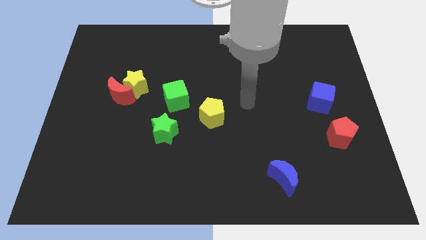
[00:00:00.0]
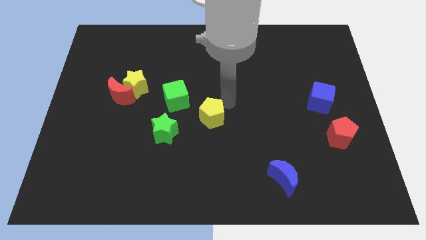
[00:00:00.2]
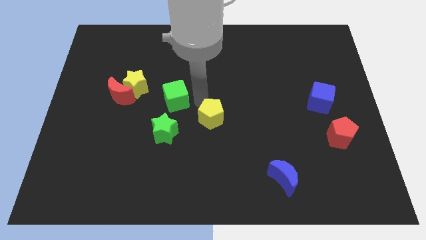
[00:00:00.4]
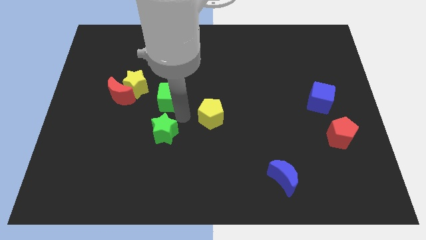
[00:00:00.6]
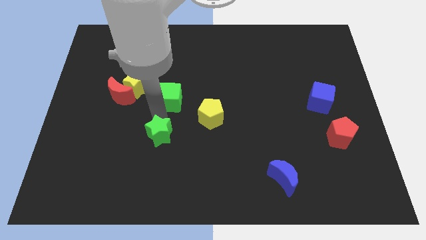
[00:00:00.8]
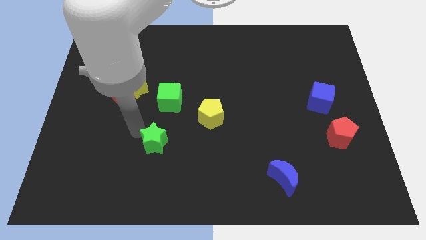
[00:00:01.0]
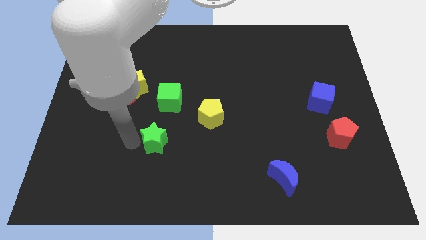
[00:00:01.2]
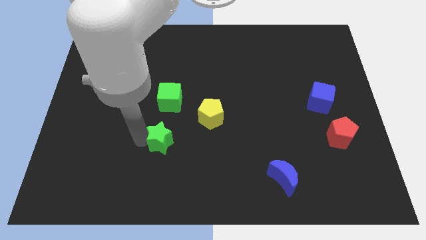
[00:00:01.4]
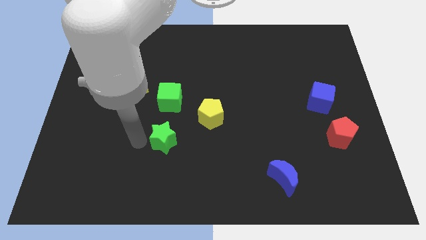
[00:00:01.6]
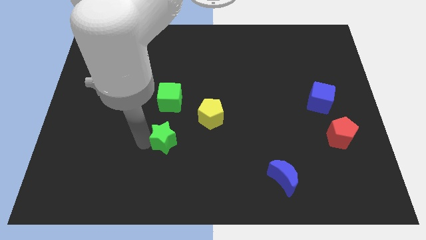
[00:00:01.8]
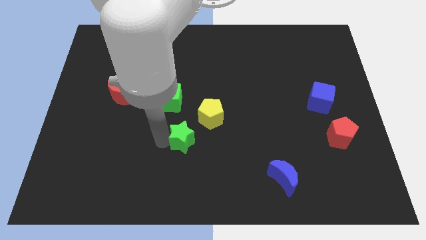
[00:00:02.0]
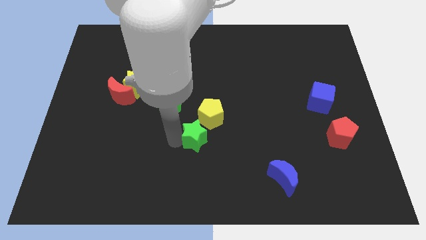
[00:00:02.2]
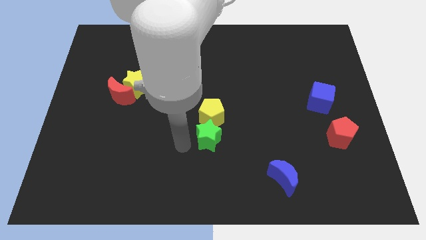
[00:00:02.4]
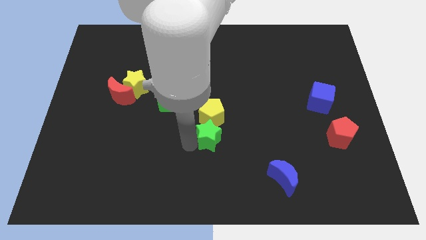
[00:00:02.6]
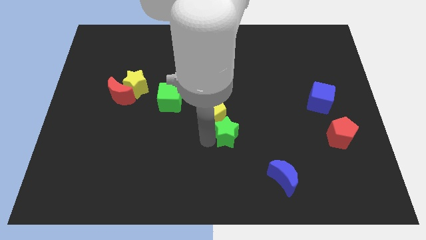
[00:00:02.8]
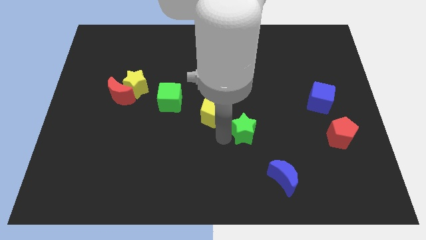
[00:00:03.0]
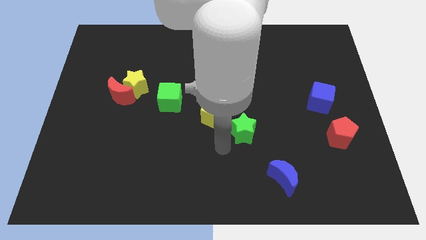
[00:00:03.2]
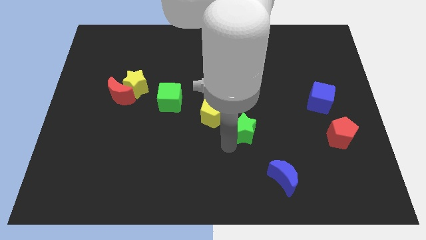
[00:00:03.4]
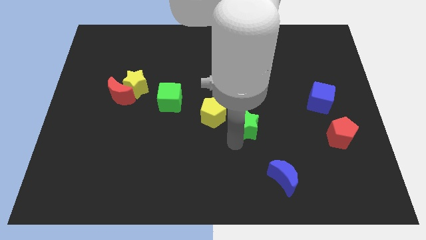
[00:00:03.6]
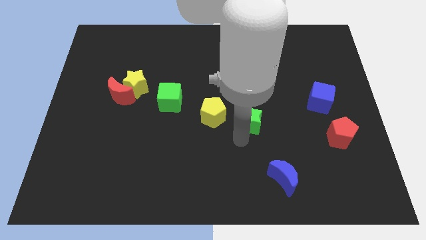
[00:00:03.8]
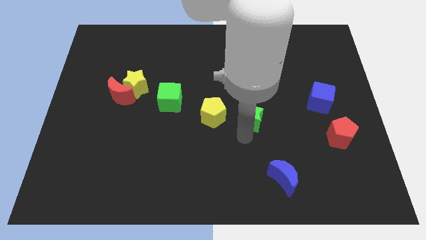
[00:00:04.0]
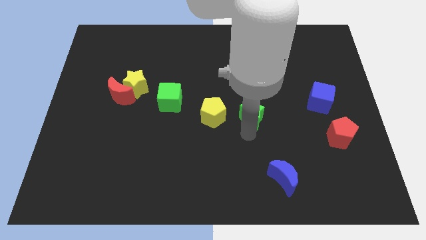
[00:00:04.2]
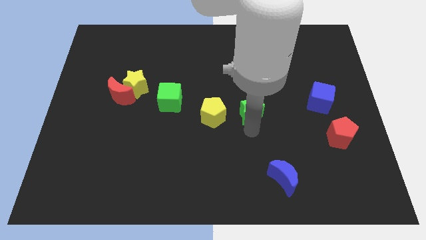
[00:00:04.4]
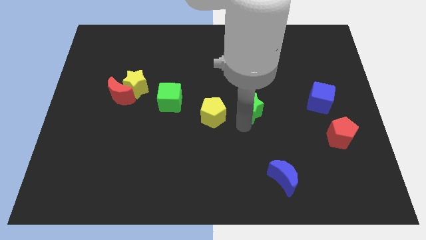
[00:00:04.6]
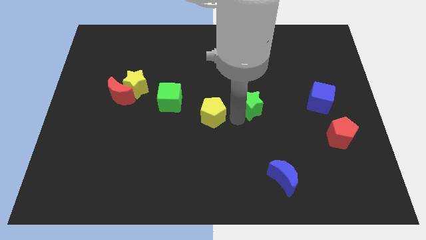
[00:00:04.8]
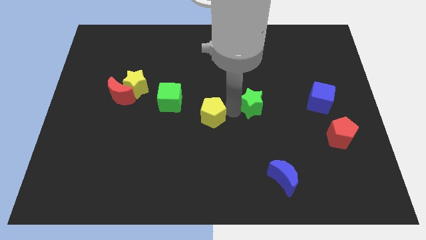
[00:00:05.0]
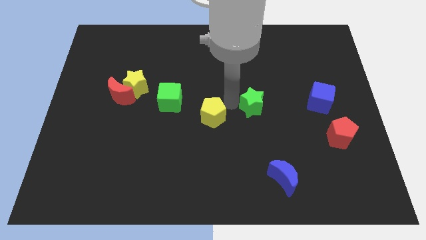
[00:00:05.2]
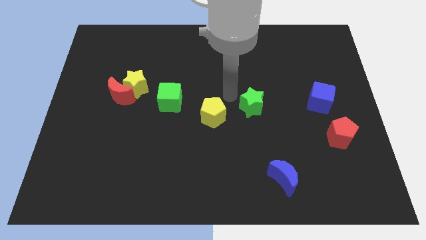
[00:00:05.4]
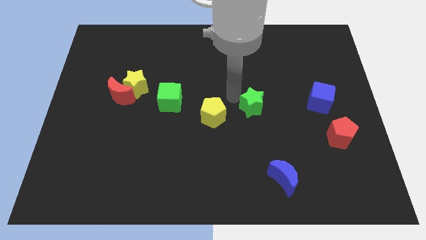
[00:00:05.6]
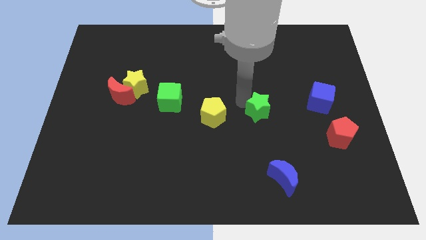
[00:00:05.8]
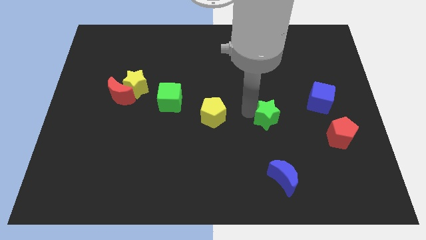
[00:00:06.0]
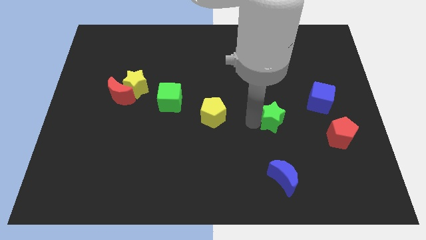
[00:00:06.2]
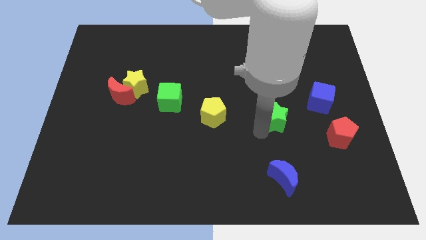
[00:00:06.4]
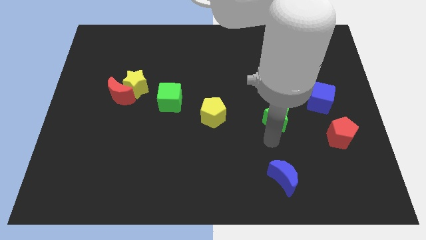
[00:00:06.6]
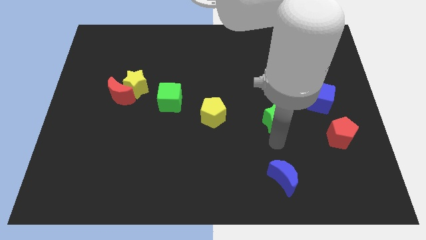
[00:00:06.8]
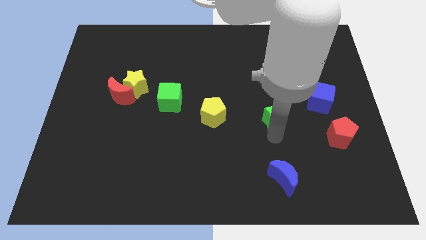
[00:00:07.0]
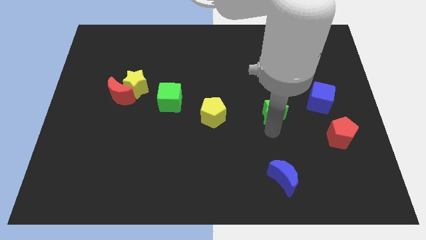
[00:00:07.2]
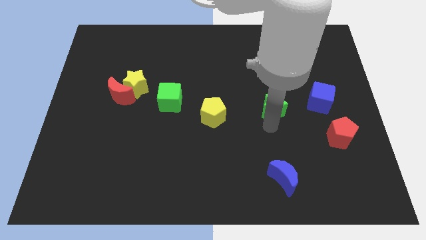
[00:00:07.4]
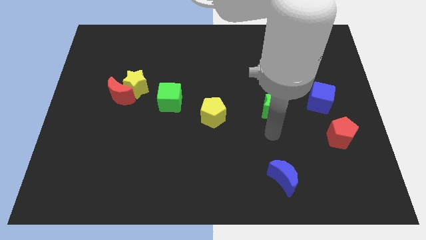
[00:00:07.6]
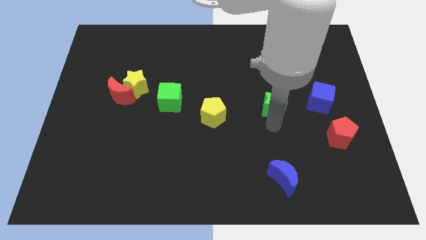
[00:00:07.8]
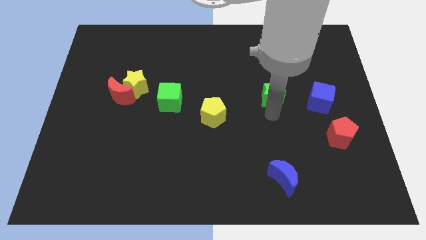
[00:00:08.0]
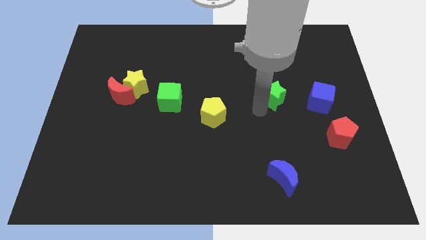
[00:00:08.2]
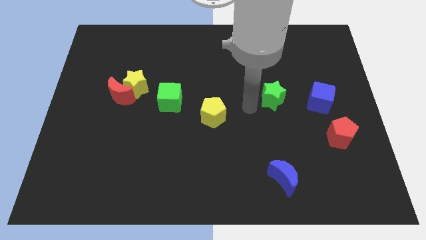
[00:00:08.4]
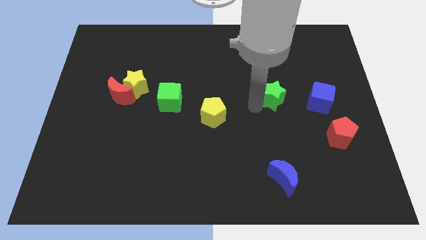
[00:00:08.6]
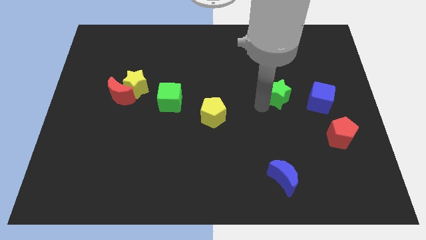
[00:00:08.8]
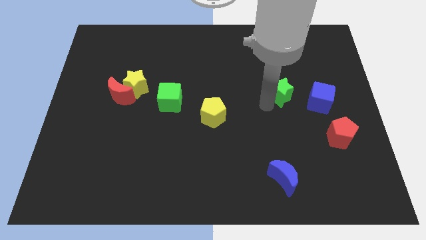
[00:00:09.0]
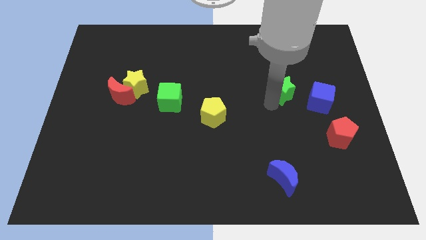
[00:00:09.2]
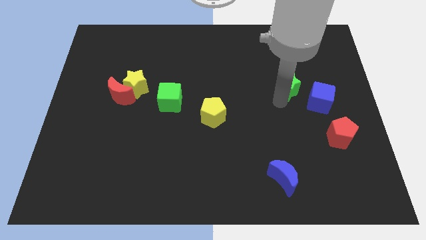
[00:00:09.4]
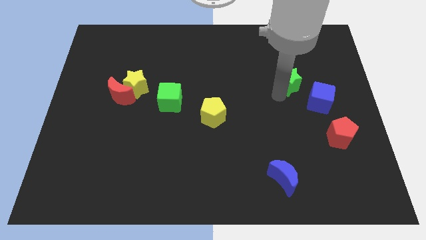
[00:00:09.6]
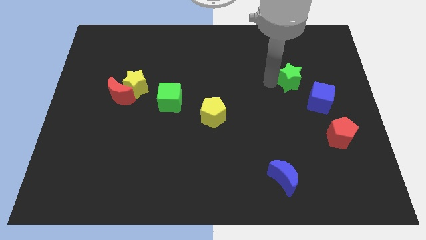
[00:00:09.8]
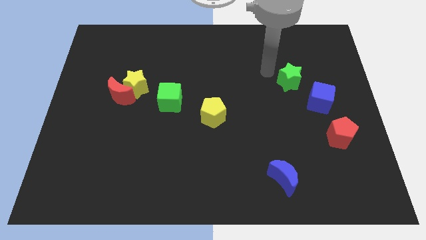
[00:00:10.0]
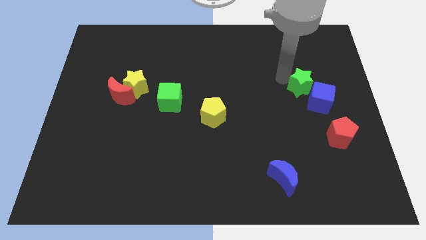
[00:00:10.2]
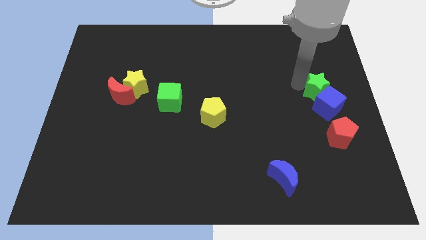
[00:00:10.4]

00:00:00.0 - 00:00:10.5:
slide the green star above the red pentagon

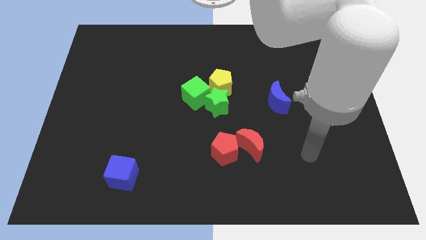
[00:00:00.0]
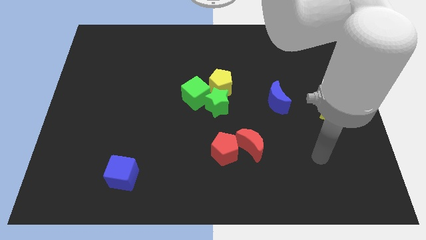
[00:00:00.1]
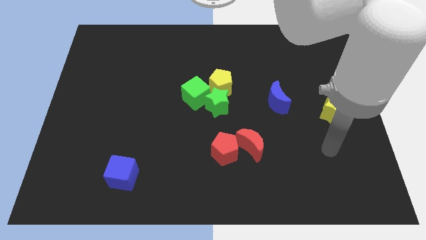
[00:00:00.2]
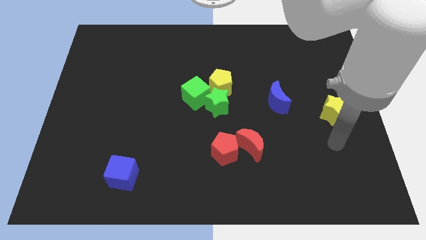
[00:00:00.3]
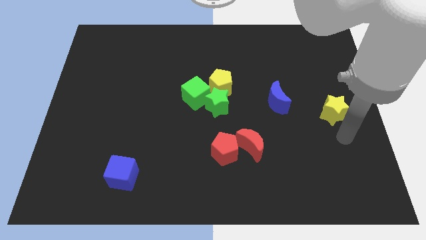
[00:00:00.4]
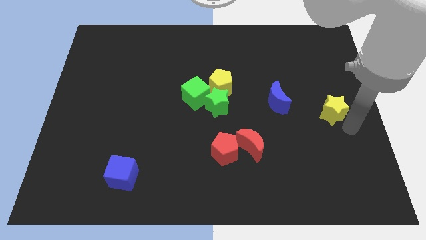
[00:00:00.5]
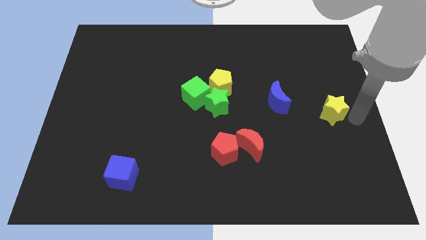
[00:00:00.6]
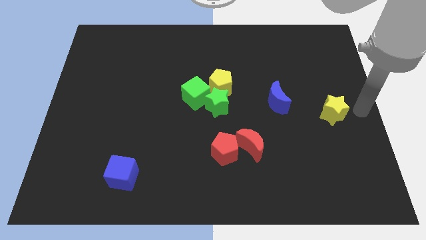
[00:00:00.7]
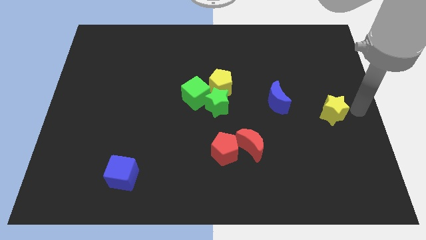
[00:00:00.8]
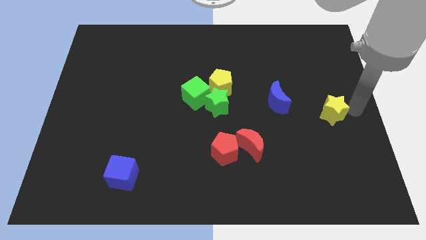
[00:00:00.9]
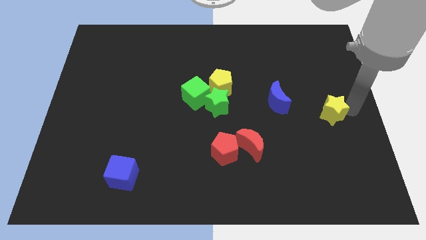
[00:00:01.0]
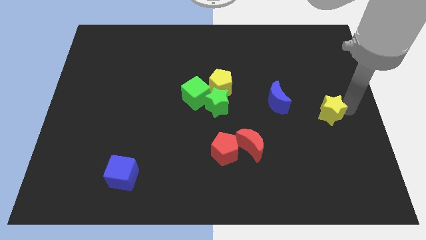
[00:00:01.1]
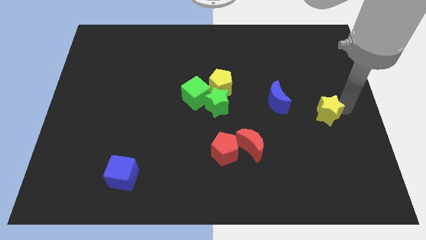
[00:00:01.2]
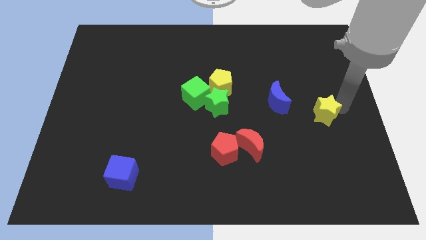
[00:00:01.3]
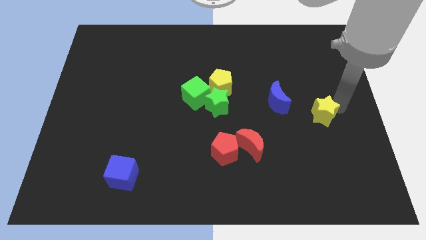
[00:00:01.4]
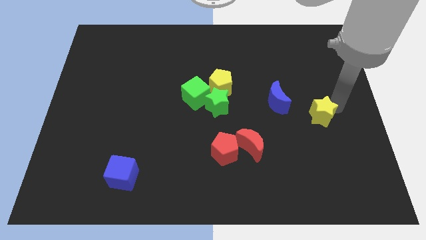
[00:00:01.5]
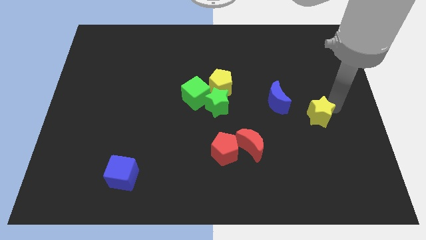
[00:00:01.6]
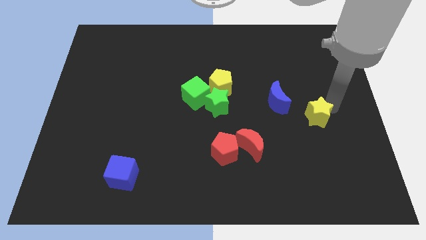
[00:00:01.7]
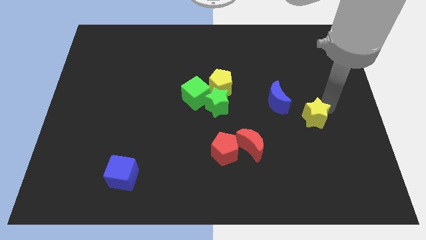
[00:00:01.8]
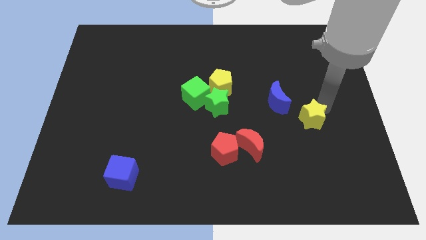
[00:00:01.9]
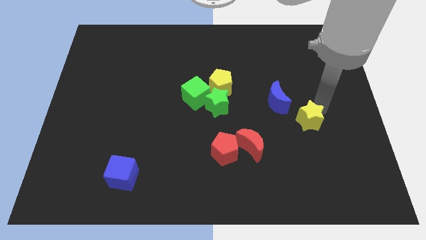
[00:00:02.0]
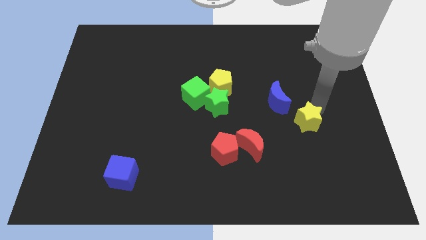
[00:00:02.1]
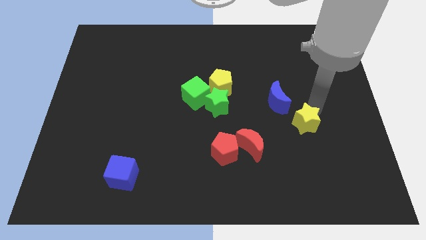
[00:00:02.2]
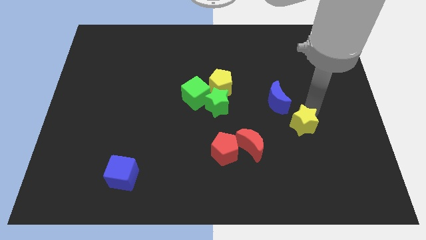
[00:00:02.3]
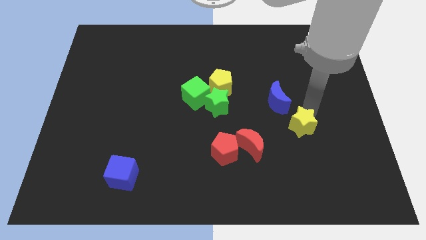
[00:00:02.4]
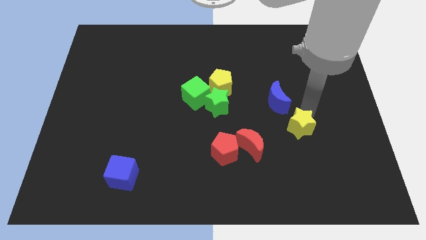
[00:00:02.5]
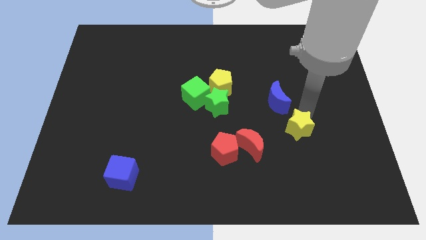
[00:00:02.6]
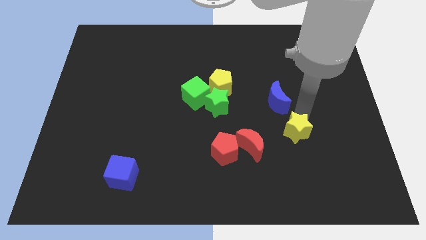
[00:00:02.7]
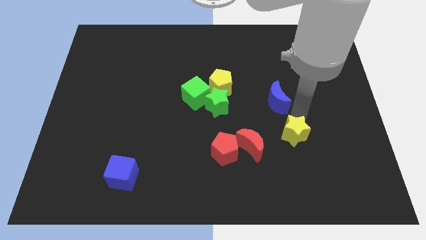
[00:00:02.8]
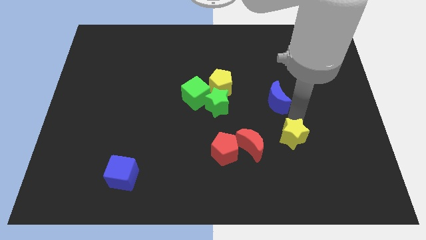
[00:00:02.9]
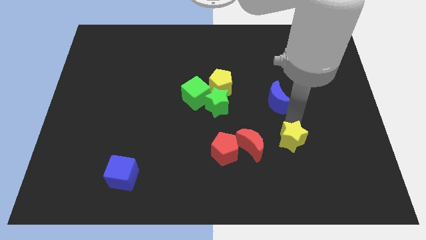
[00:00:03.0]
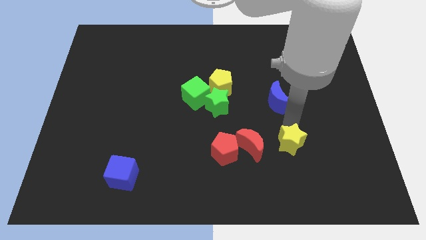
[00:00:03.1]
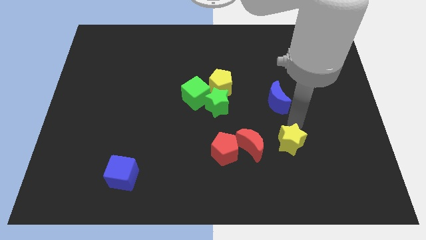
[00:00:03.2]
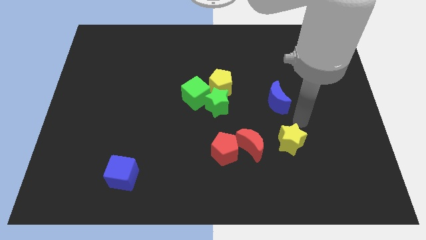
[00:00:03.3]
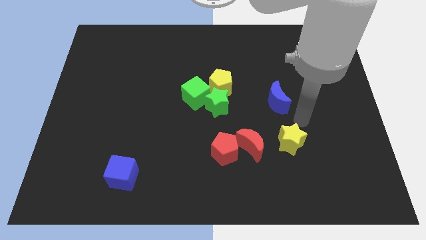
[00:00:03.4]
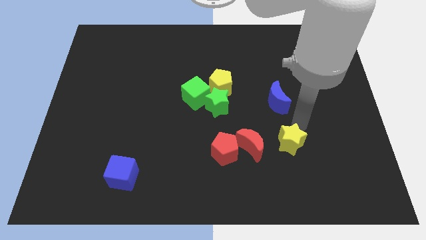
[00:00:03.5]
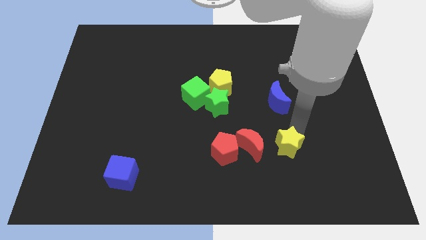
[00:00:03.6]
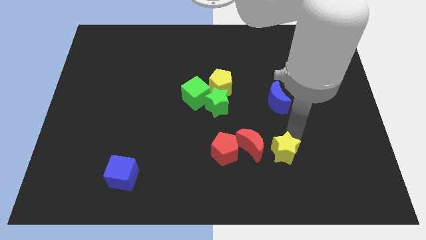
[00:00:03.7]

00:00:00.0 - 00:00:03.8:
put the yellow star to the bottom right side of the red moon
